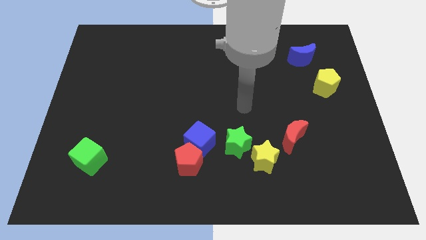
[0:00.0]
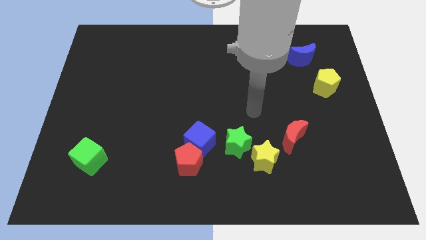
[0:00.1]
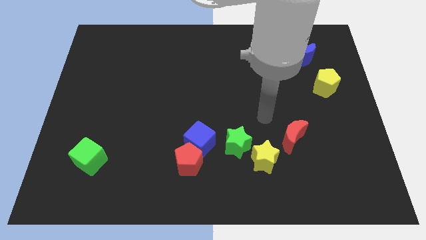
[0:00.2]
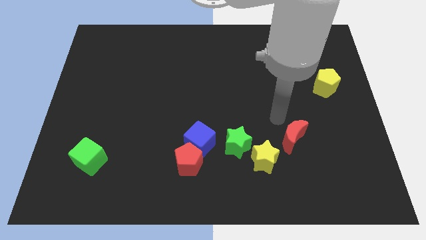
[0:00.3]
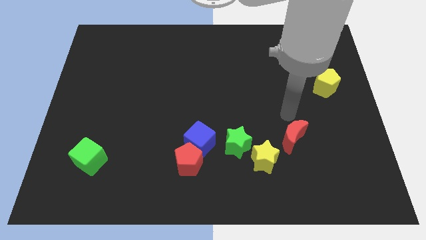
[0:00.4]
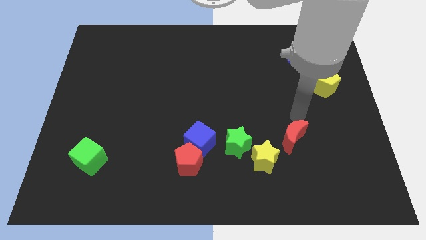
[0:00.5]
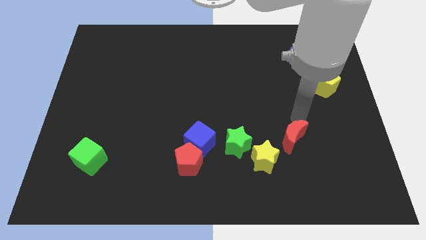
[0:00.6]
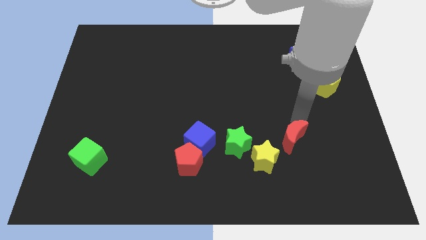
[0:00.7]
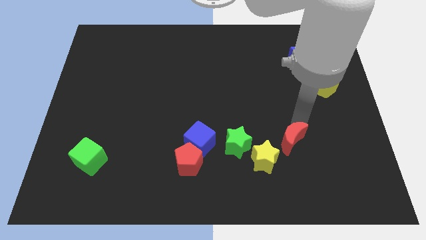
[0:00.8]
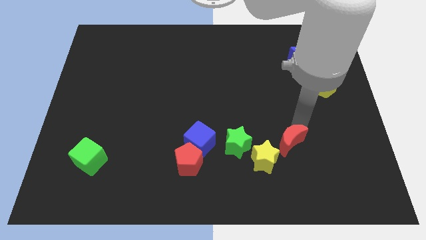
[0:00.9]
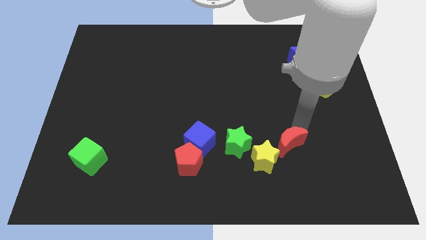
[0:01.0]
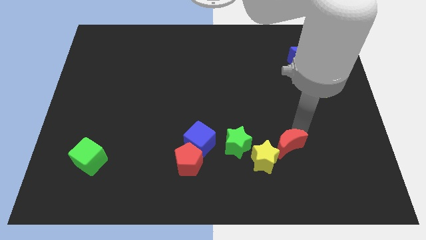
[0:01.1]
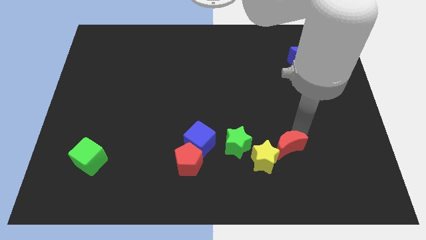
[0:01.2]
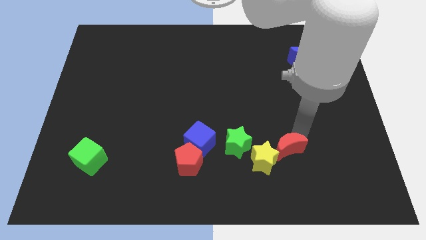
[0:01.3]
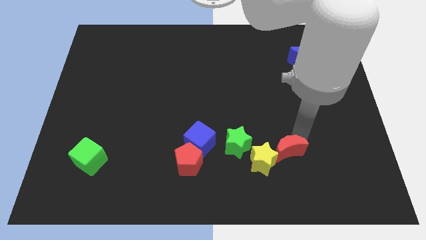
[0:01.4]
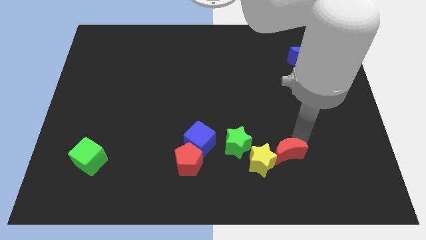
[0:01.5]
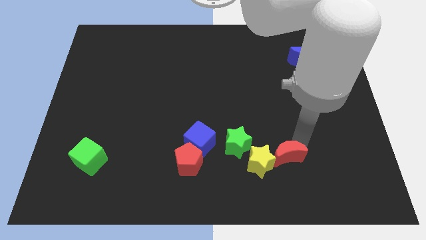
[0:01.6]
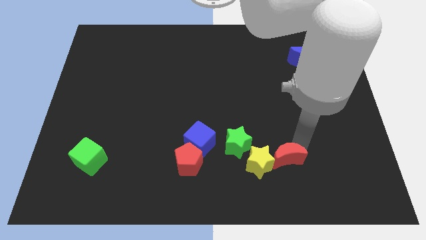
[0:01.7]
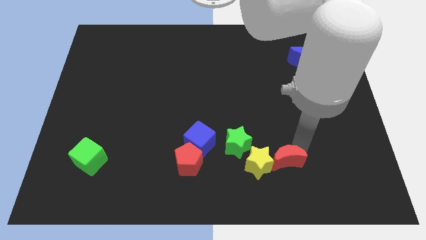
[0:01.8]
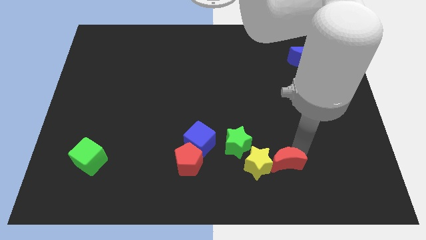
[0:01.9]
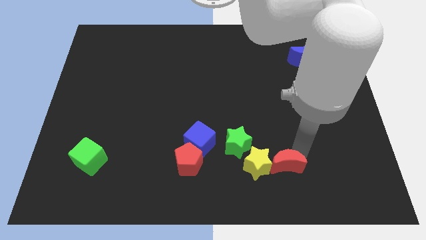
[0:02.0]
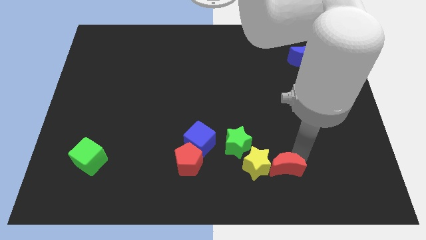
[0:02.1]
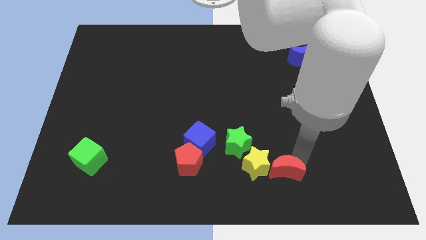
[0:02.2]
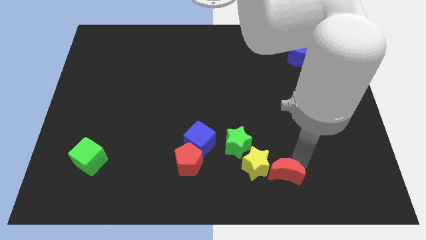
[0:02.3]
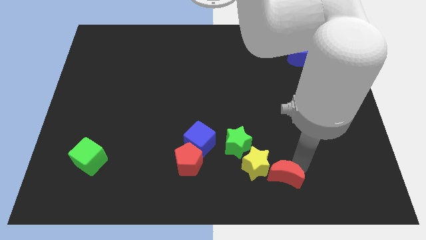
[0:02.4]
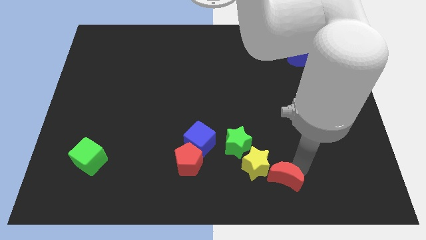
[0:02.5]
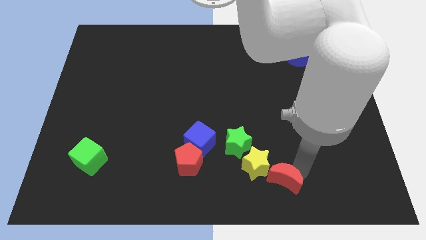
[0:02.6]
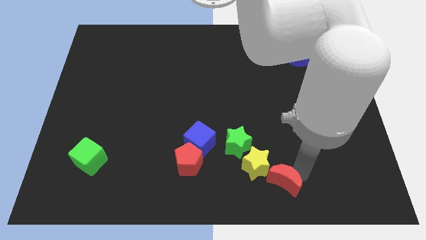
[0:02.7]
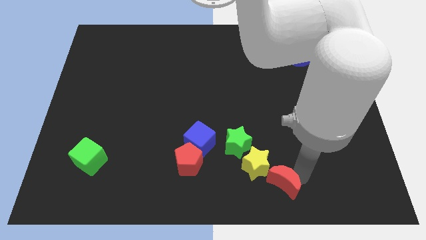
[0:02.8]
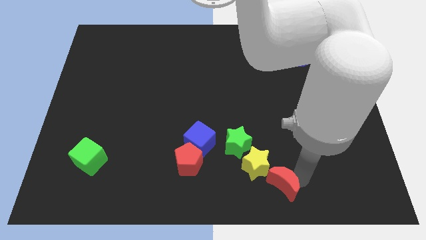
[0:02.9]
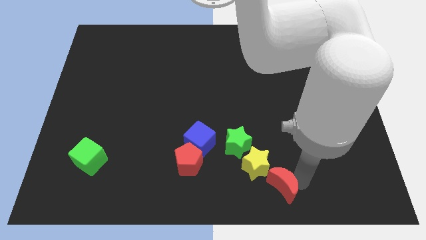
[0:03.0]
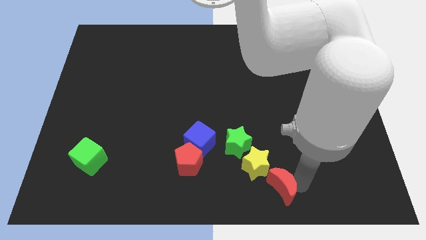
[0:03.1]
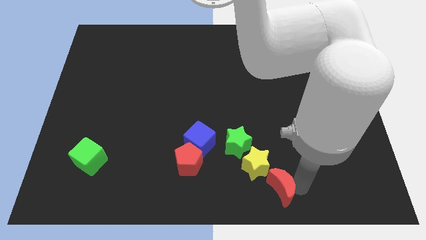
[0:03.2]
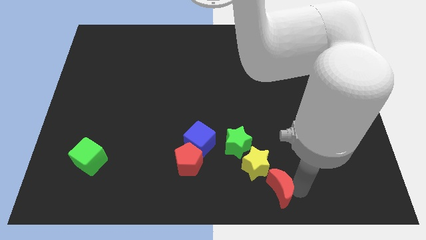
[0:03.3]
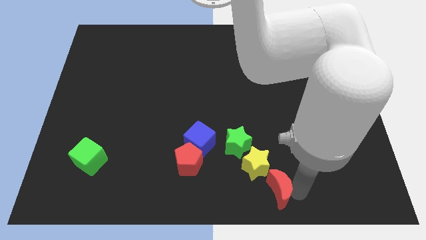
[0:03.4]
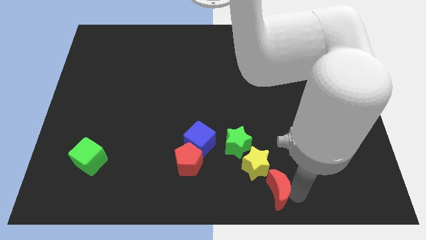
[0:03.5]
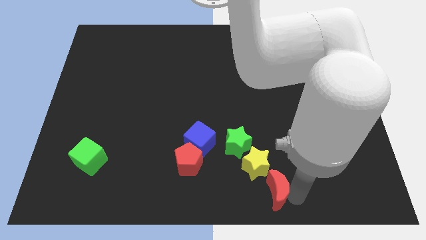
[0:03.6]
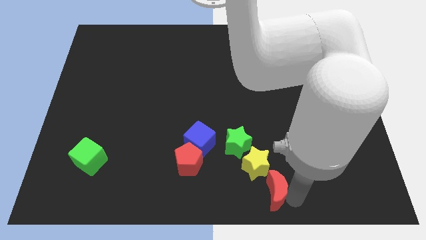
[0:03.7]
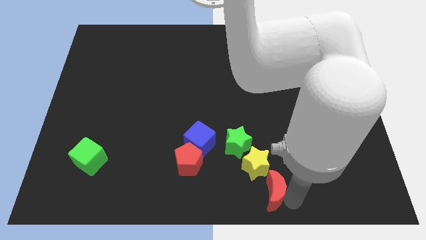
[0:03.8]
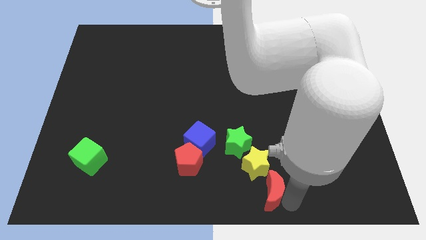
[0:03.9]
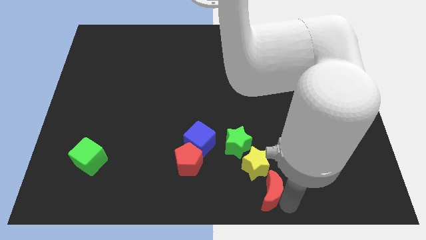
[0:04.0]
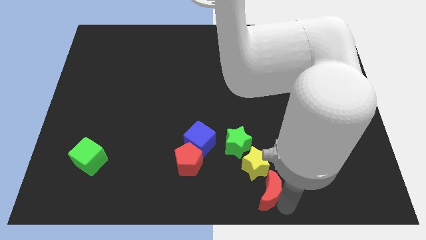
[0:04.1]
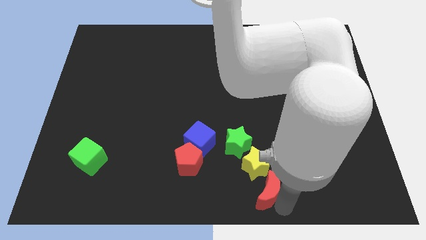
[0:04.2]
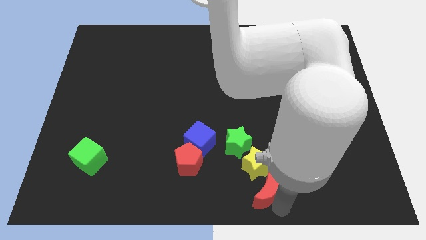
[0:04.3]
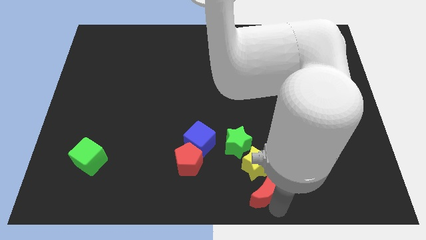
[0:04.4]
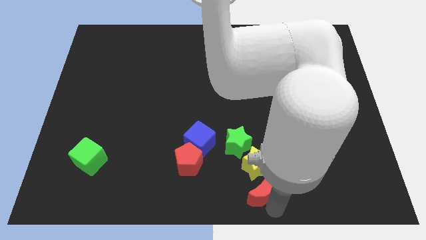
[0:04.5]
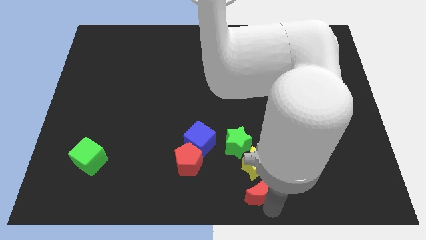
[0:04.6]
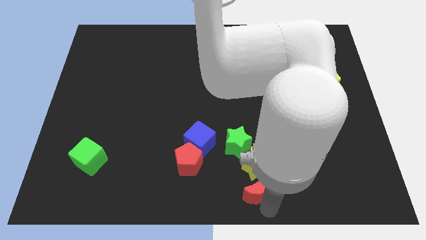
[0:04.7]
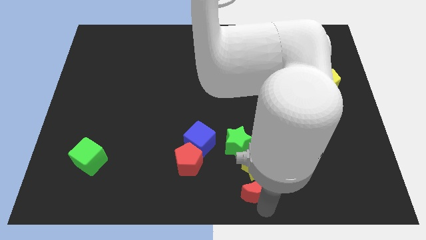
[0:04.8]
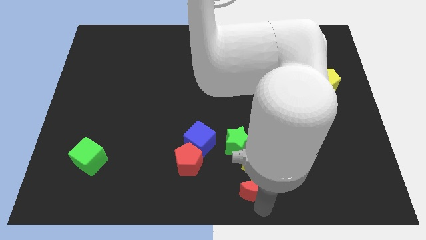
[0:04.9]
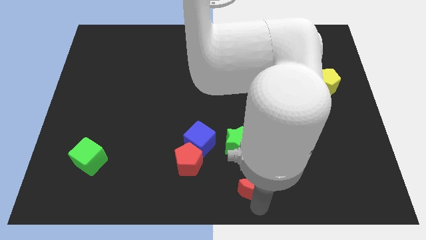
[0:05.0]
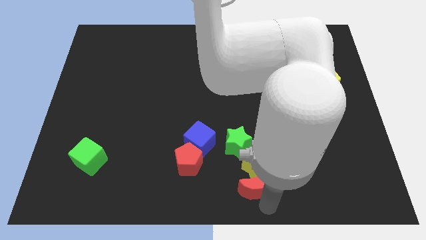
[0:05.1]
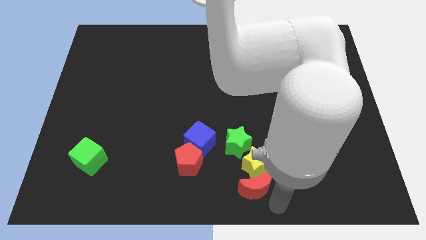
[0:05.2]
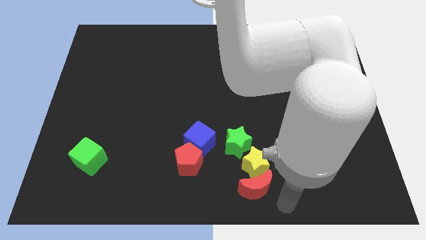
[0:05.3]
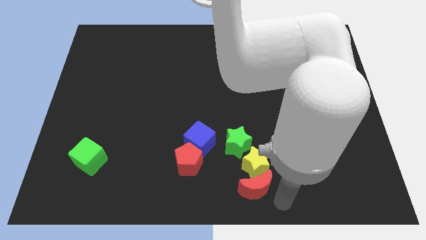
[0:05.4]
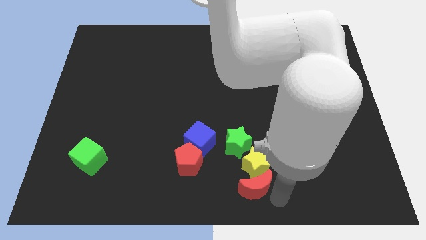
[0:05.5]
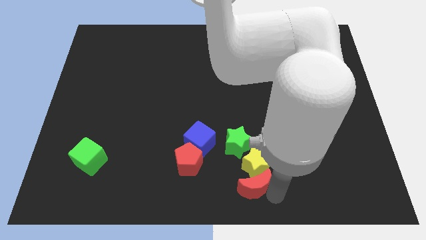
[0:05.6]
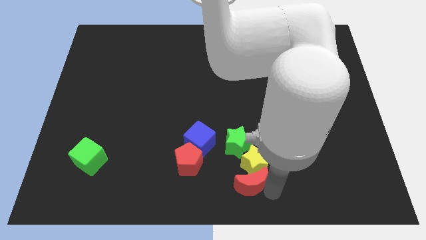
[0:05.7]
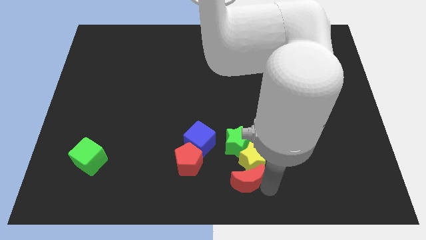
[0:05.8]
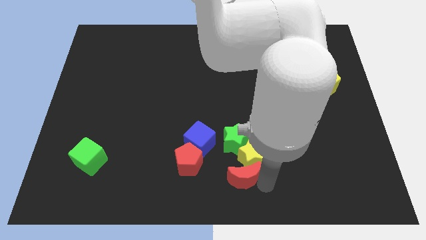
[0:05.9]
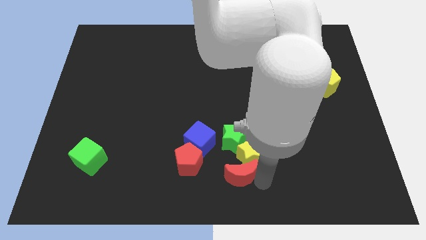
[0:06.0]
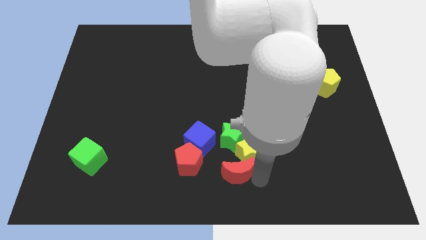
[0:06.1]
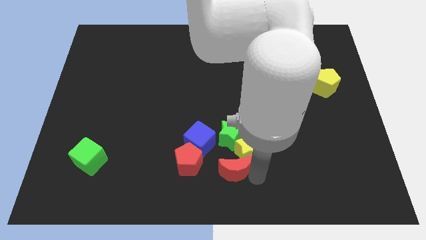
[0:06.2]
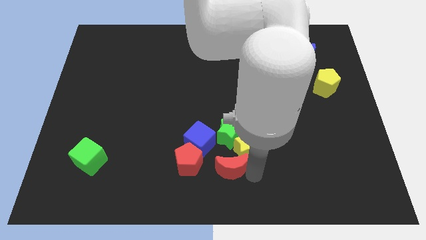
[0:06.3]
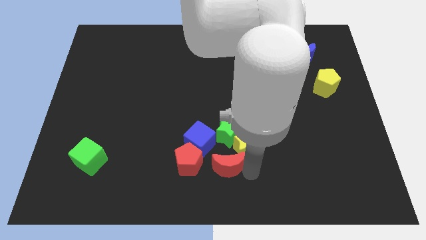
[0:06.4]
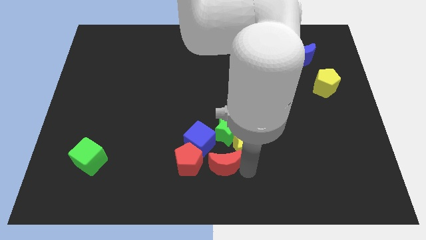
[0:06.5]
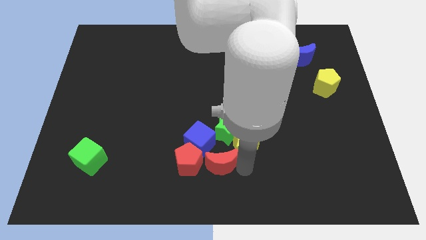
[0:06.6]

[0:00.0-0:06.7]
move the red moon to the bottom left of the green star

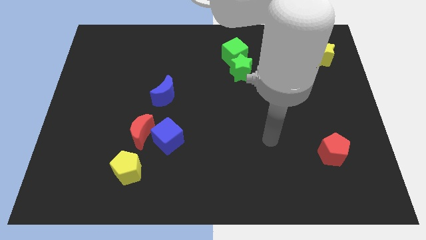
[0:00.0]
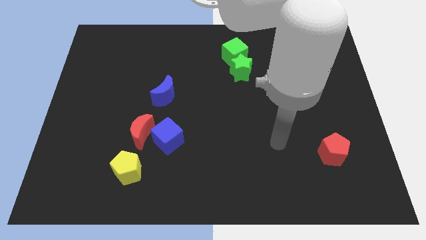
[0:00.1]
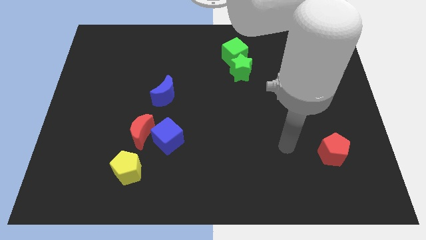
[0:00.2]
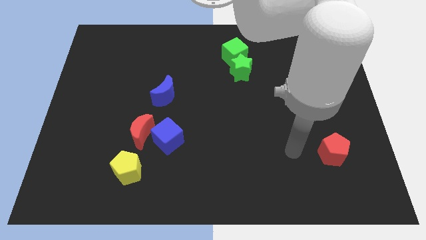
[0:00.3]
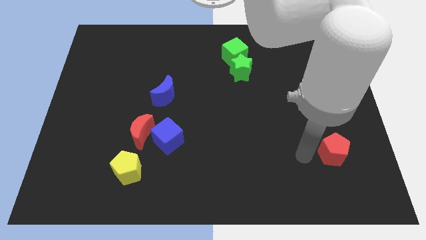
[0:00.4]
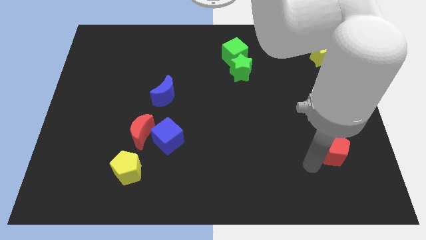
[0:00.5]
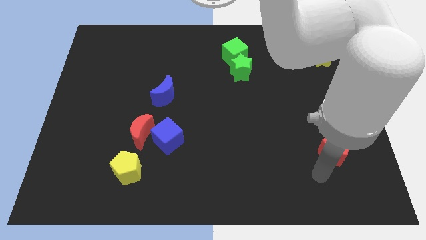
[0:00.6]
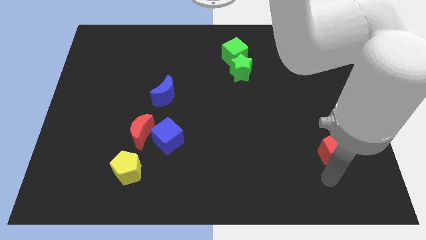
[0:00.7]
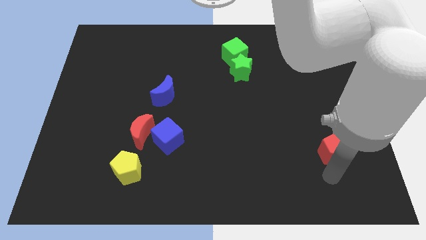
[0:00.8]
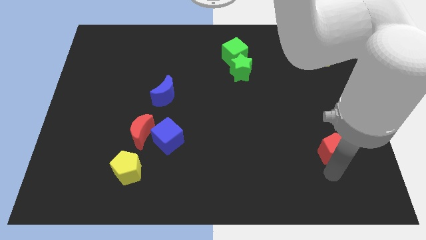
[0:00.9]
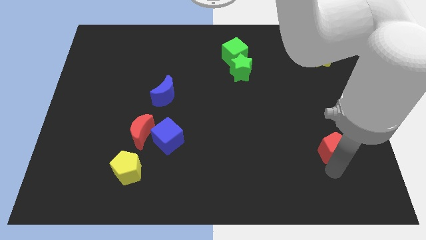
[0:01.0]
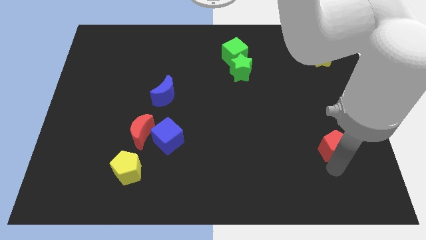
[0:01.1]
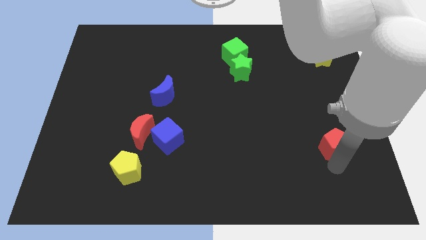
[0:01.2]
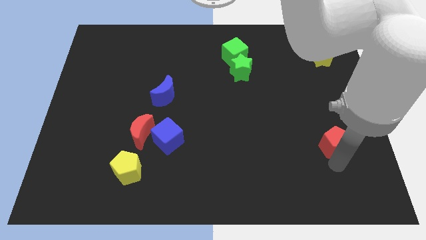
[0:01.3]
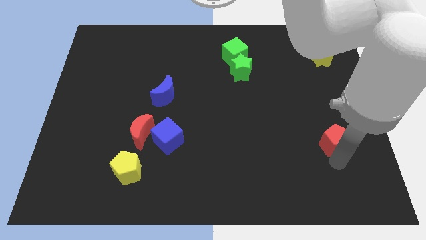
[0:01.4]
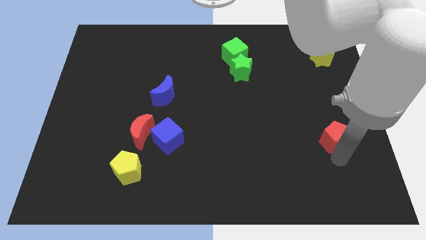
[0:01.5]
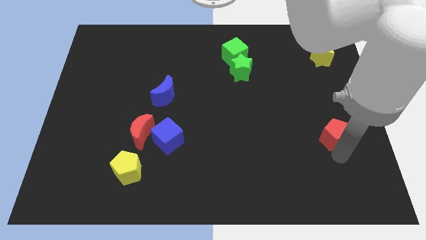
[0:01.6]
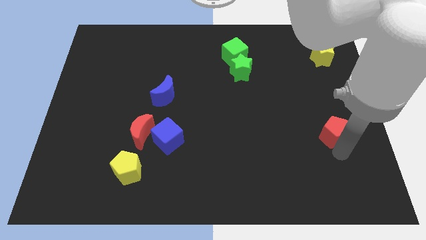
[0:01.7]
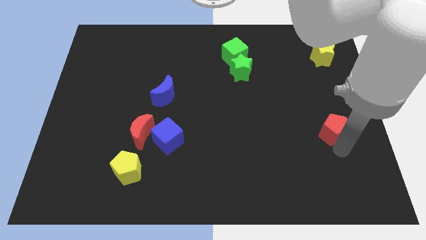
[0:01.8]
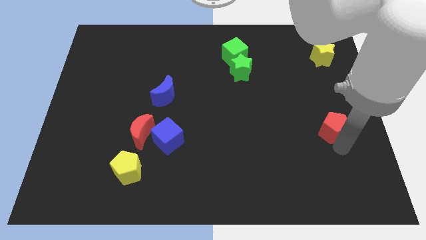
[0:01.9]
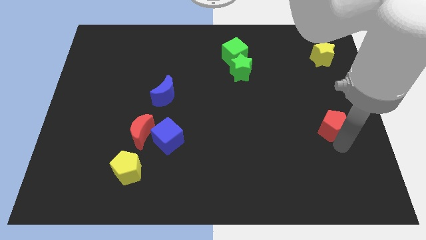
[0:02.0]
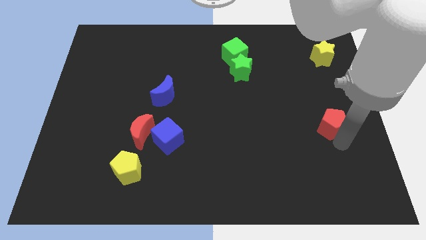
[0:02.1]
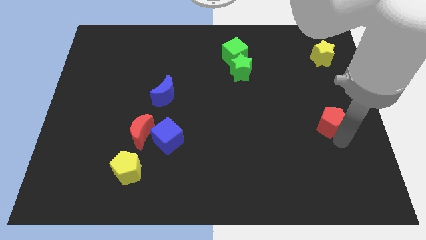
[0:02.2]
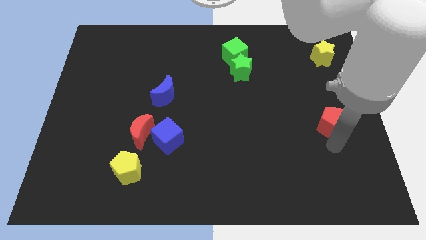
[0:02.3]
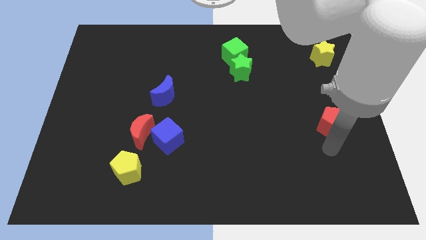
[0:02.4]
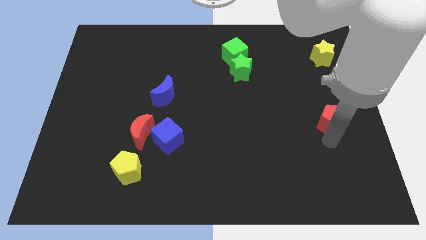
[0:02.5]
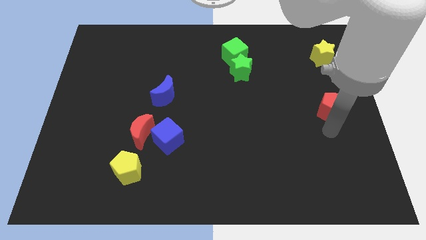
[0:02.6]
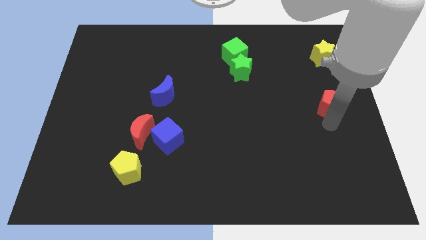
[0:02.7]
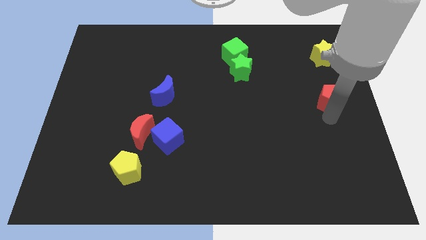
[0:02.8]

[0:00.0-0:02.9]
put the red pentagon to the bottom of the yellow star
